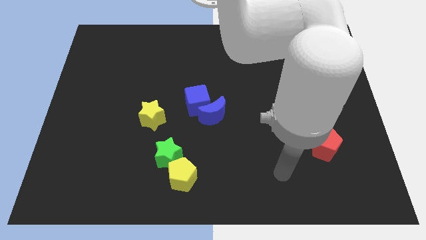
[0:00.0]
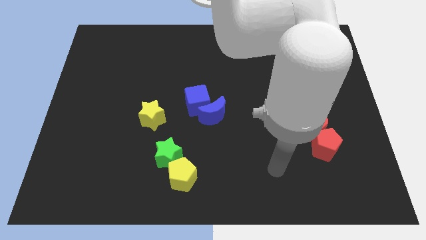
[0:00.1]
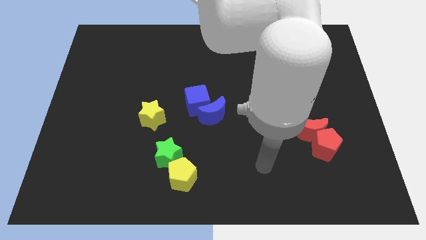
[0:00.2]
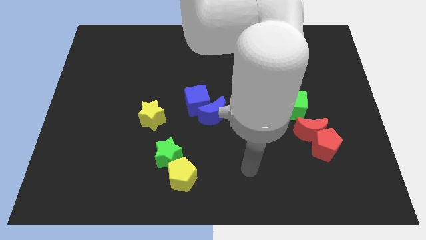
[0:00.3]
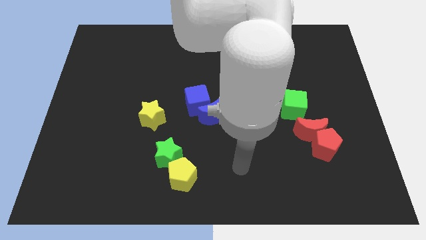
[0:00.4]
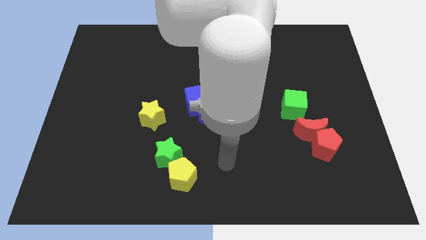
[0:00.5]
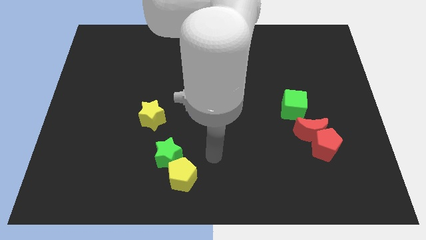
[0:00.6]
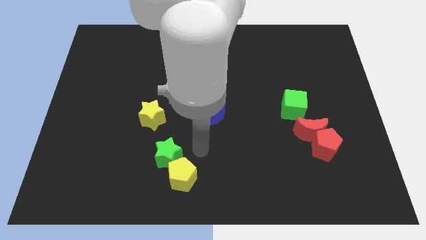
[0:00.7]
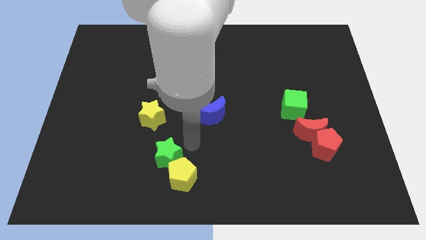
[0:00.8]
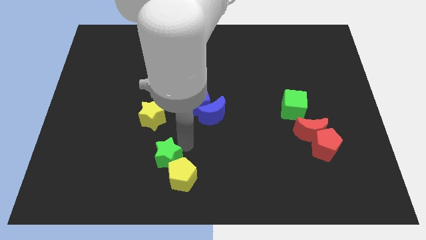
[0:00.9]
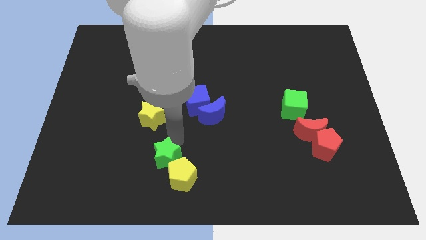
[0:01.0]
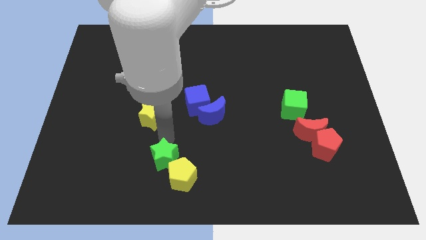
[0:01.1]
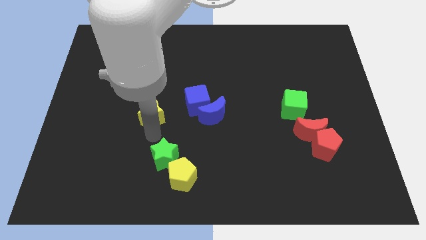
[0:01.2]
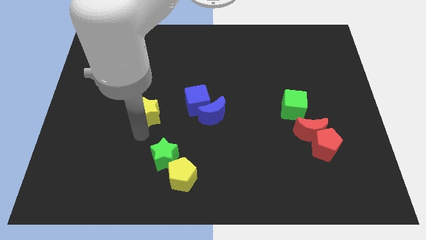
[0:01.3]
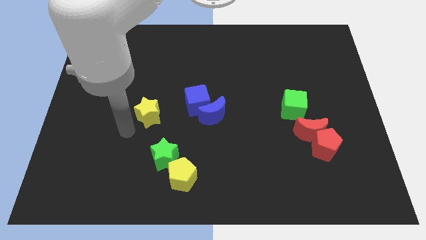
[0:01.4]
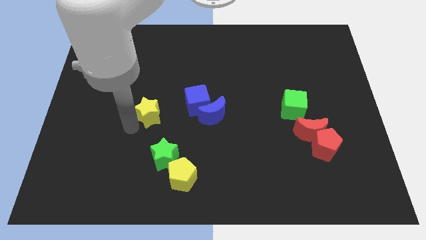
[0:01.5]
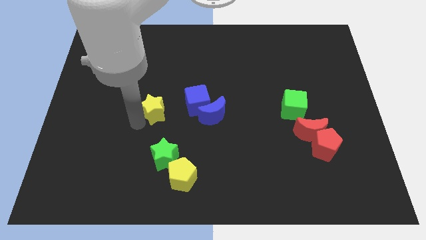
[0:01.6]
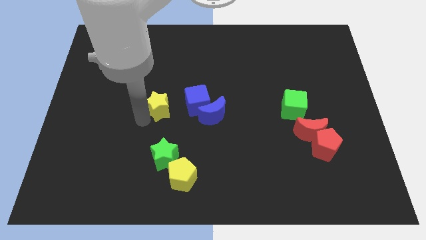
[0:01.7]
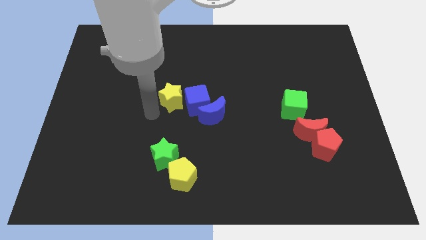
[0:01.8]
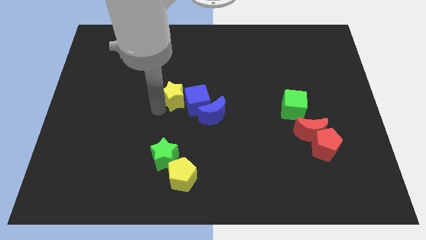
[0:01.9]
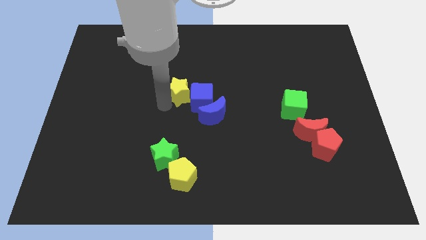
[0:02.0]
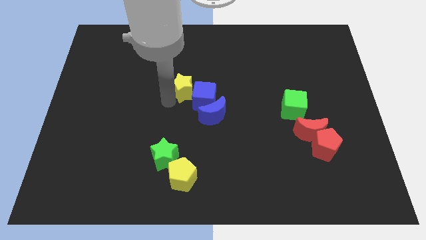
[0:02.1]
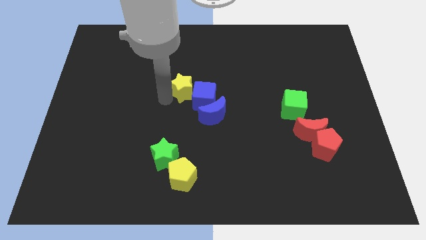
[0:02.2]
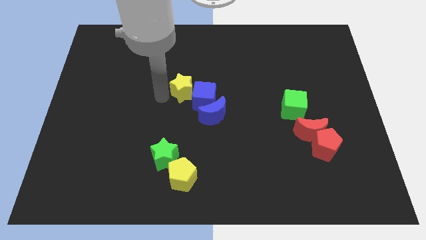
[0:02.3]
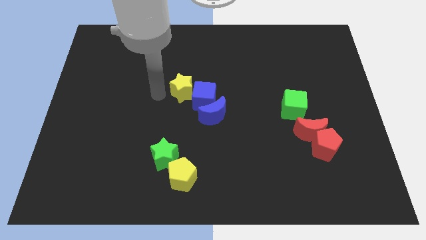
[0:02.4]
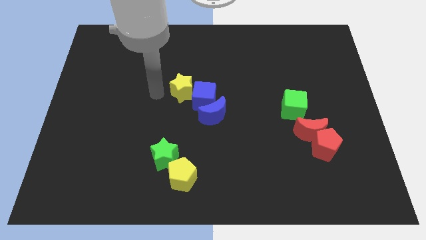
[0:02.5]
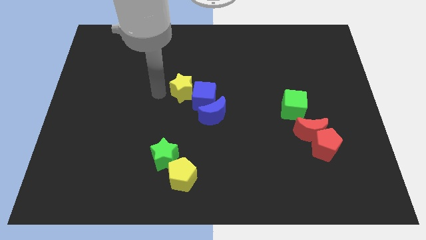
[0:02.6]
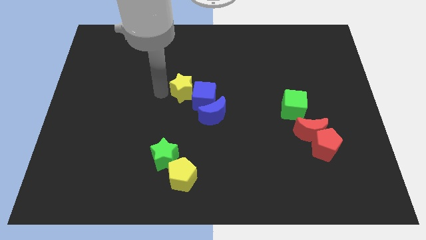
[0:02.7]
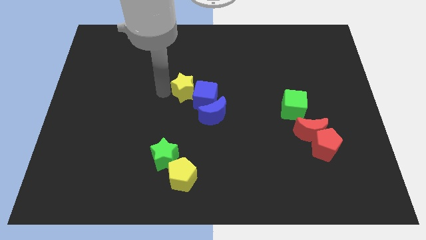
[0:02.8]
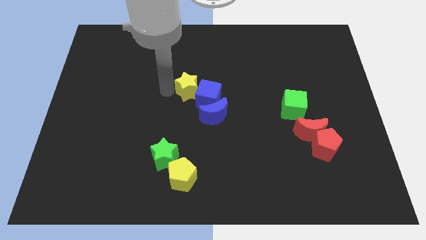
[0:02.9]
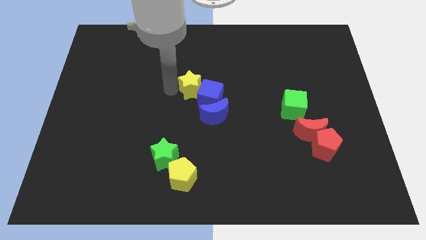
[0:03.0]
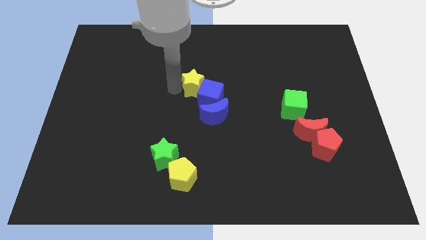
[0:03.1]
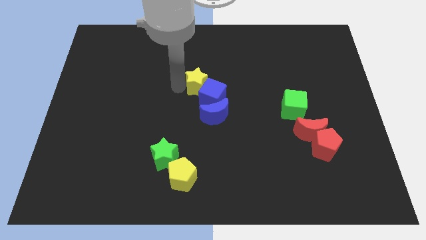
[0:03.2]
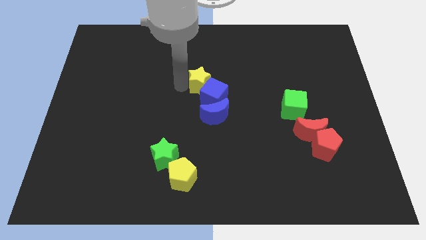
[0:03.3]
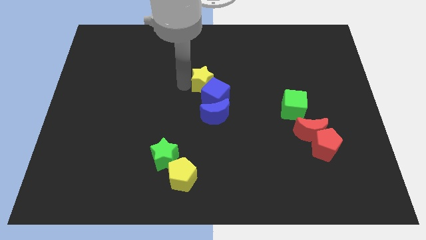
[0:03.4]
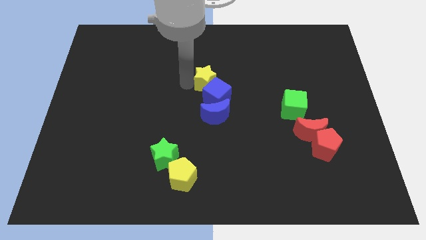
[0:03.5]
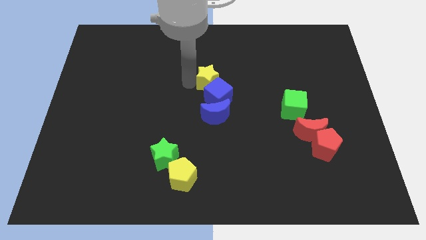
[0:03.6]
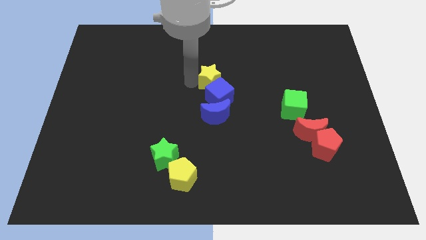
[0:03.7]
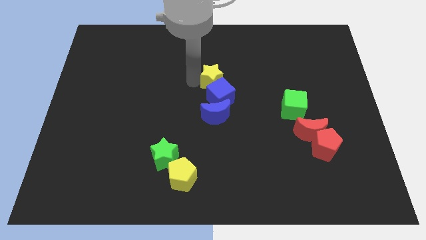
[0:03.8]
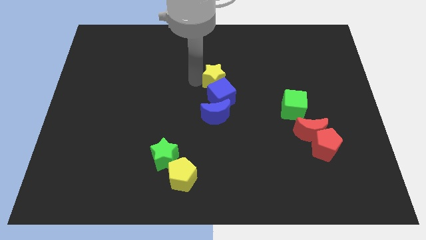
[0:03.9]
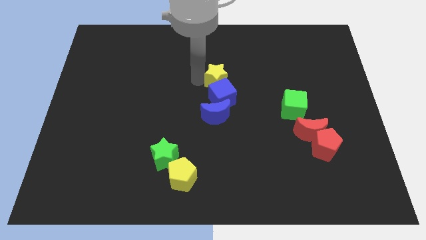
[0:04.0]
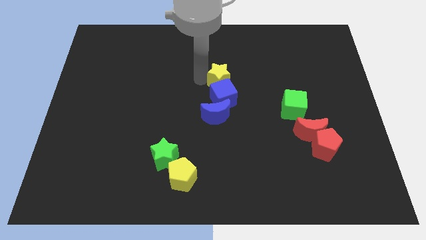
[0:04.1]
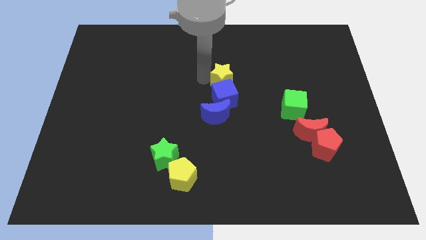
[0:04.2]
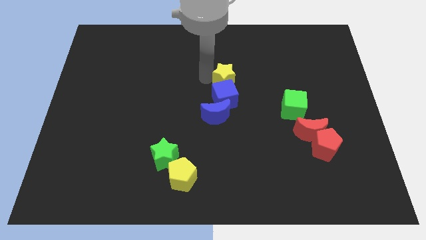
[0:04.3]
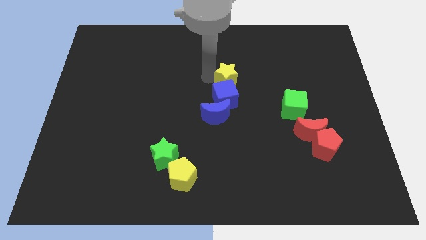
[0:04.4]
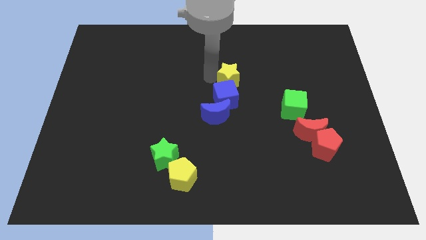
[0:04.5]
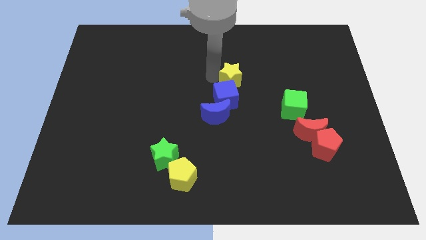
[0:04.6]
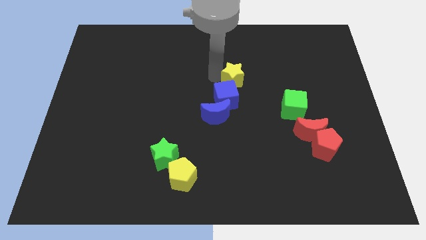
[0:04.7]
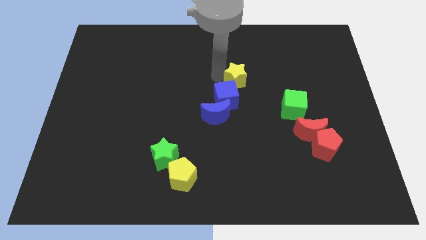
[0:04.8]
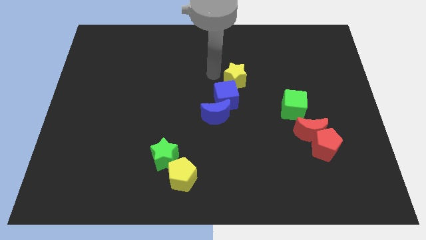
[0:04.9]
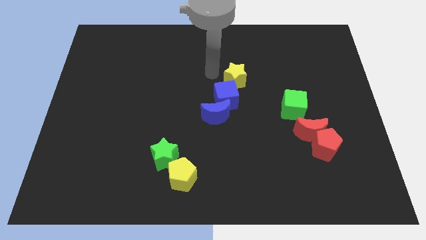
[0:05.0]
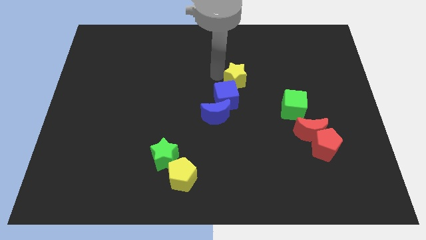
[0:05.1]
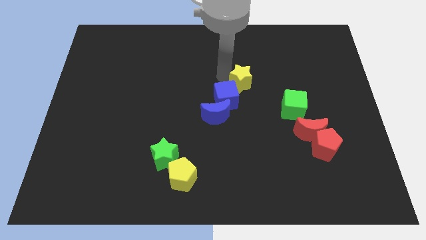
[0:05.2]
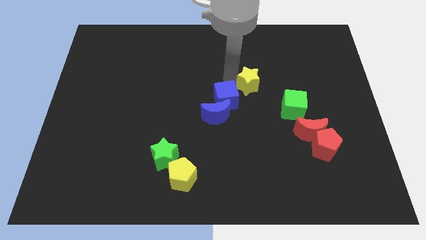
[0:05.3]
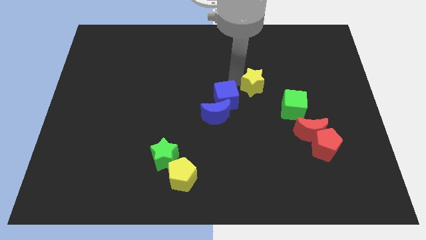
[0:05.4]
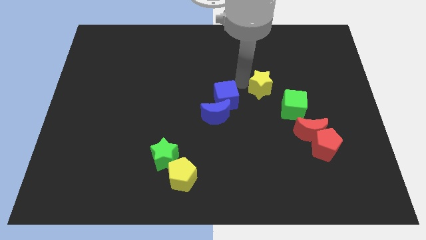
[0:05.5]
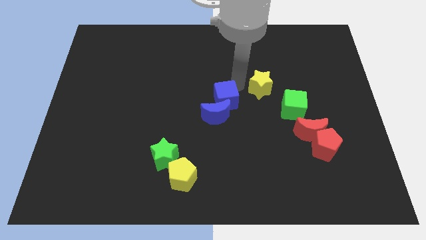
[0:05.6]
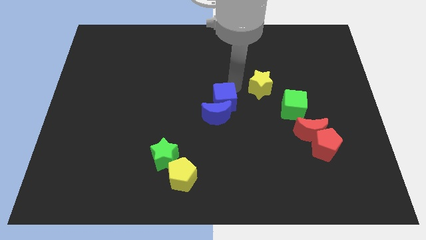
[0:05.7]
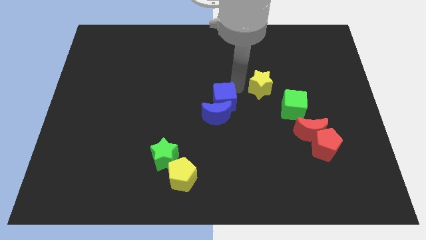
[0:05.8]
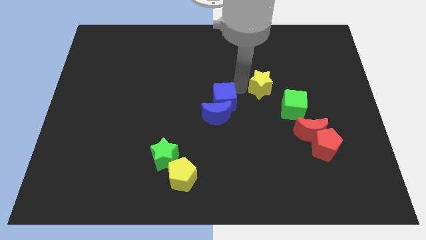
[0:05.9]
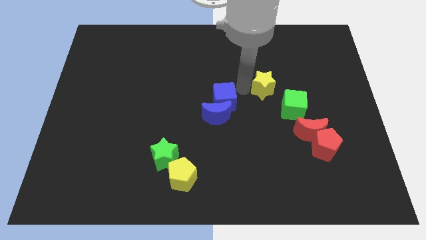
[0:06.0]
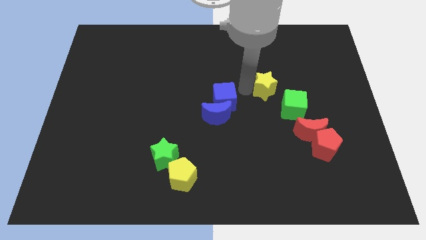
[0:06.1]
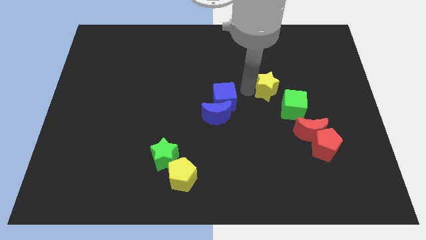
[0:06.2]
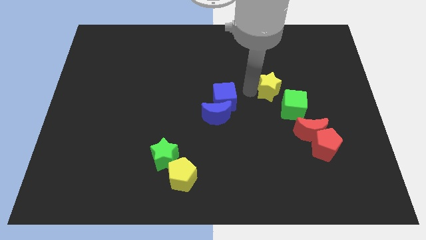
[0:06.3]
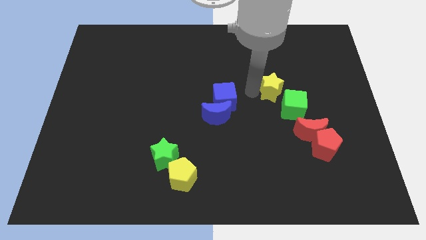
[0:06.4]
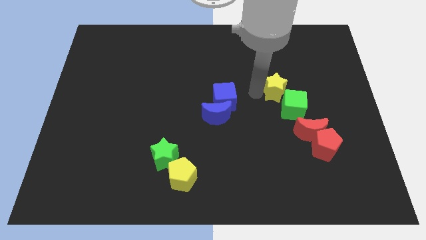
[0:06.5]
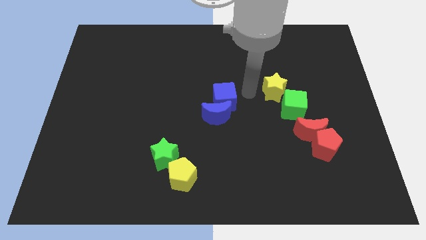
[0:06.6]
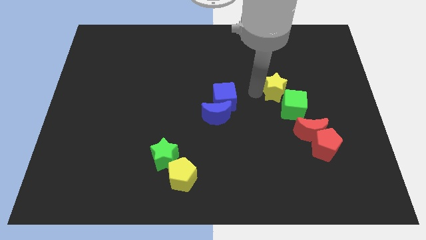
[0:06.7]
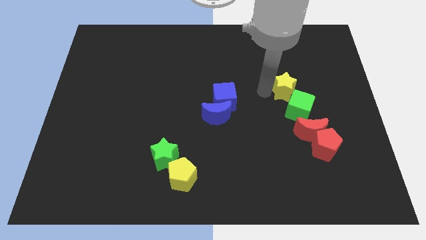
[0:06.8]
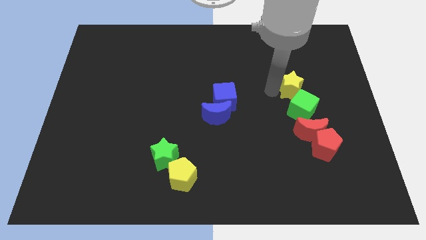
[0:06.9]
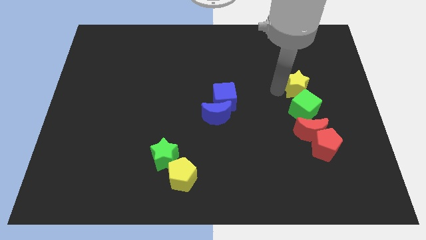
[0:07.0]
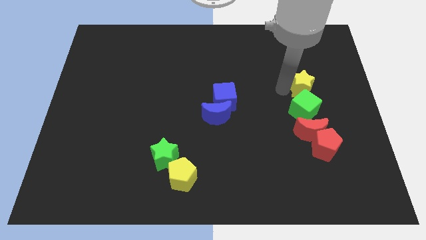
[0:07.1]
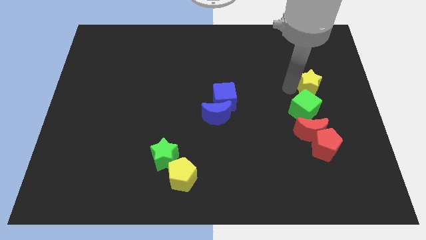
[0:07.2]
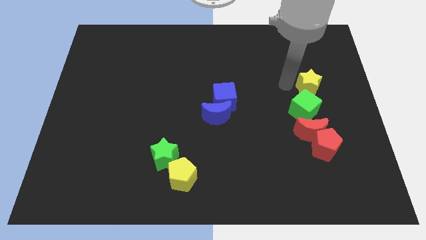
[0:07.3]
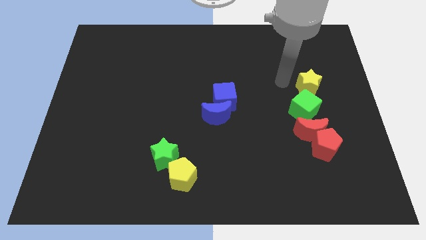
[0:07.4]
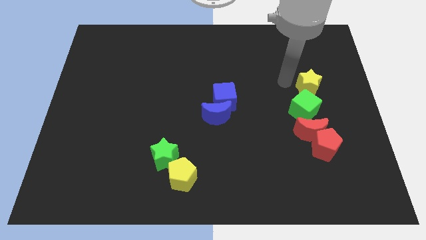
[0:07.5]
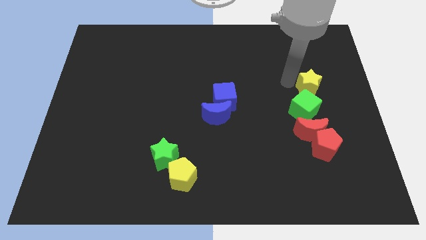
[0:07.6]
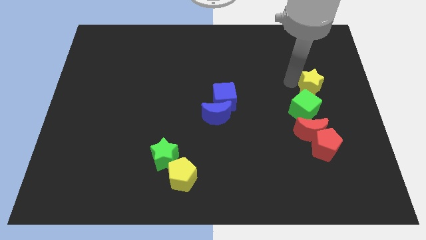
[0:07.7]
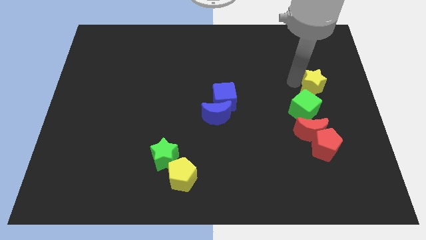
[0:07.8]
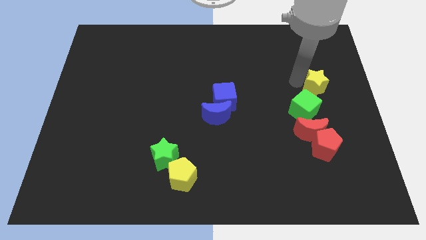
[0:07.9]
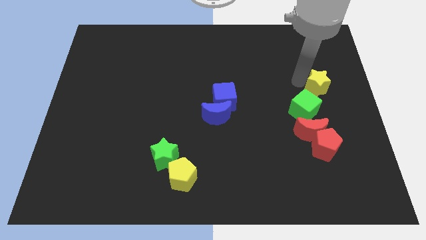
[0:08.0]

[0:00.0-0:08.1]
slide the yellow star to the center right
